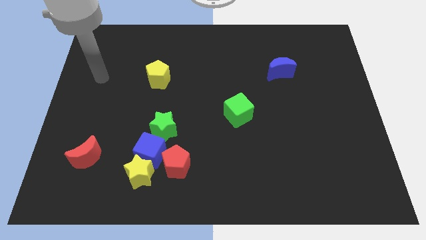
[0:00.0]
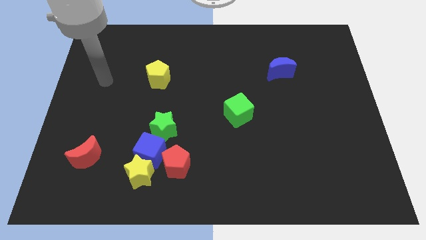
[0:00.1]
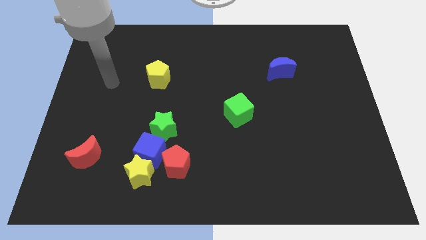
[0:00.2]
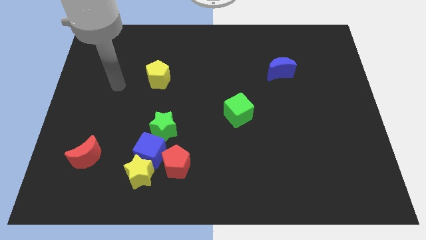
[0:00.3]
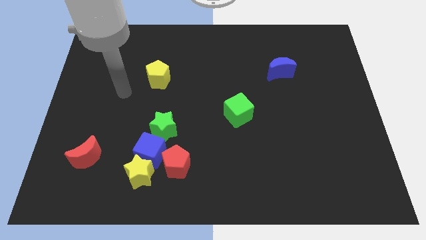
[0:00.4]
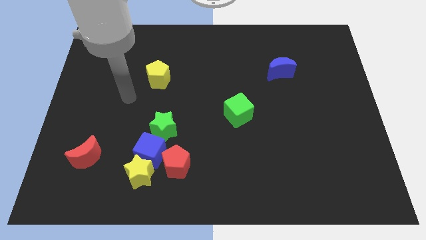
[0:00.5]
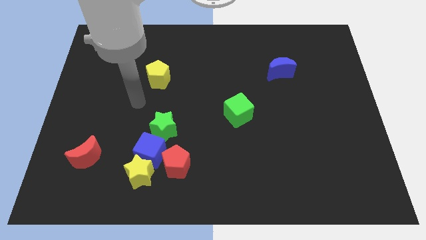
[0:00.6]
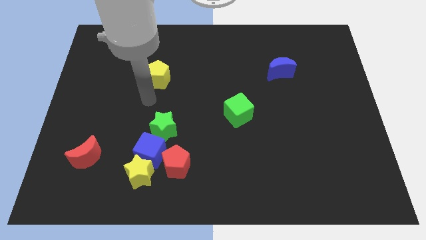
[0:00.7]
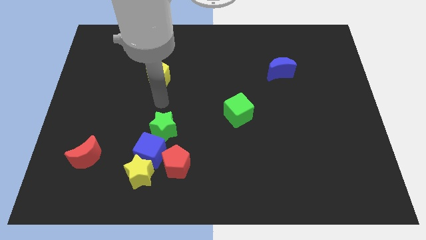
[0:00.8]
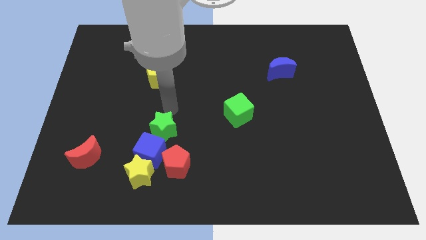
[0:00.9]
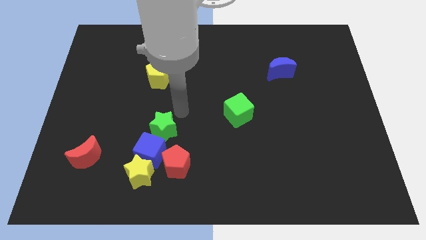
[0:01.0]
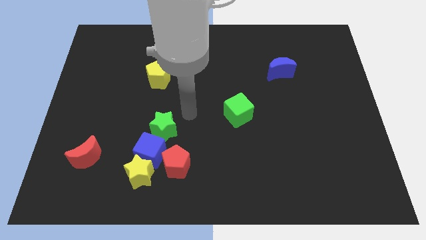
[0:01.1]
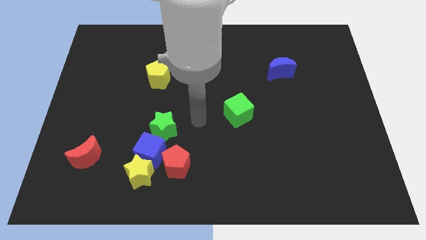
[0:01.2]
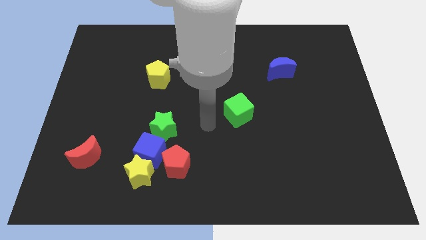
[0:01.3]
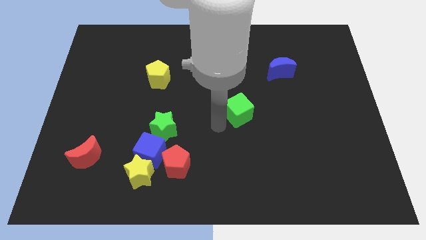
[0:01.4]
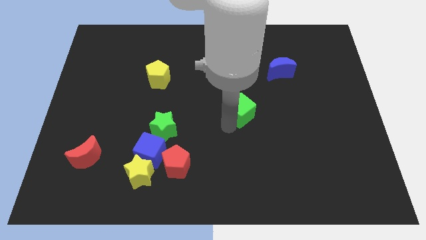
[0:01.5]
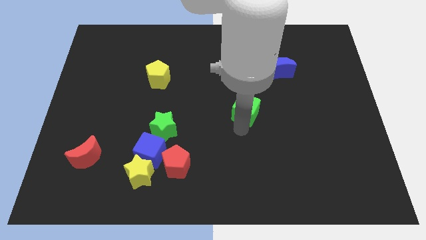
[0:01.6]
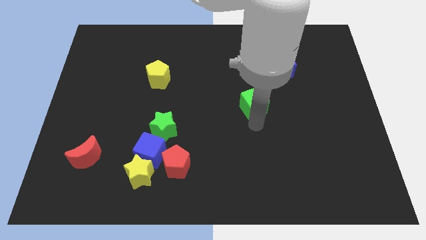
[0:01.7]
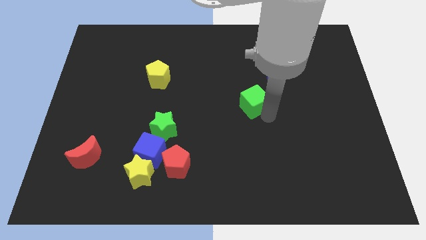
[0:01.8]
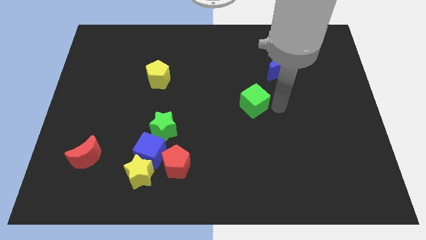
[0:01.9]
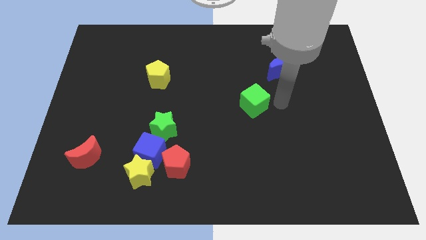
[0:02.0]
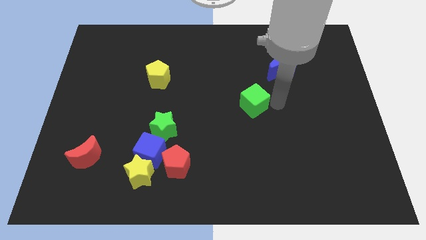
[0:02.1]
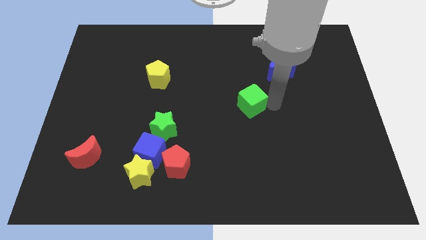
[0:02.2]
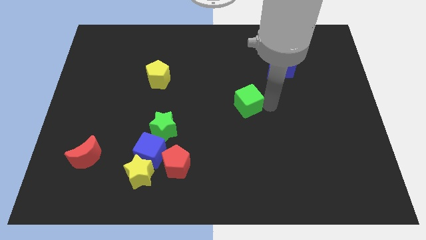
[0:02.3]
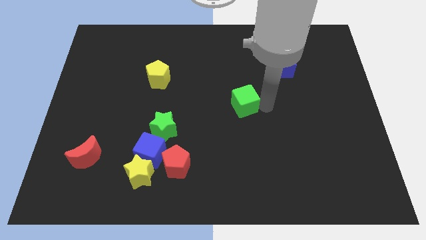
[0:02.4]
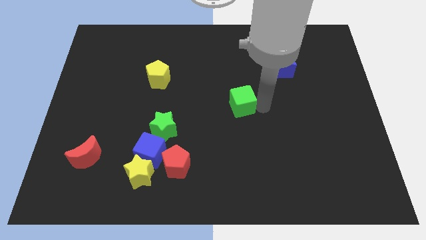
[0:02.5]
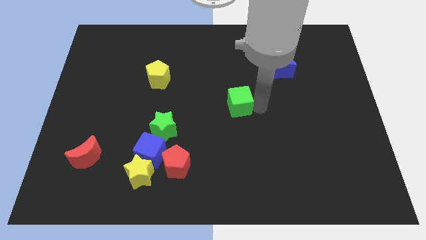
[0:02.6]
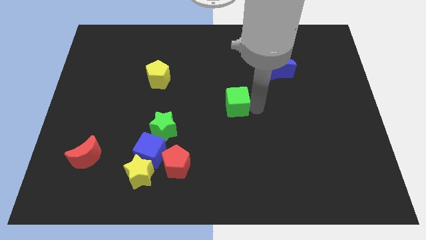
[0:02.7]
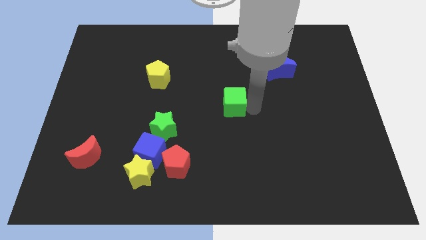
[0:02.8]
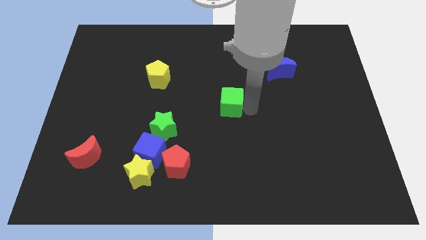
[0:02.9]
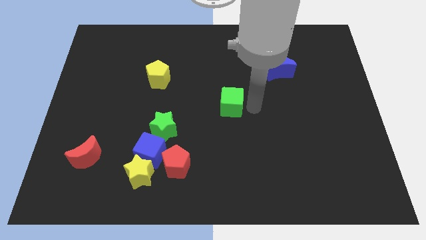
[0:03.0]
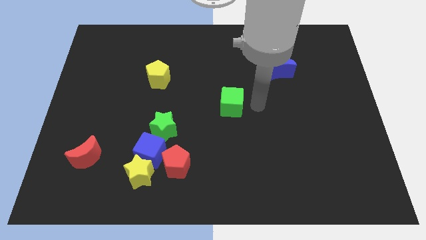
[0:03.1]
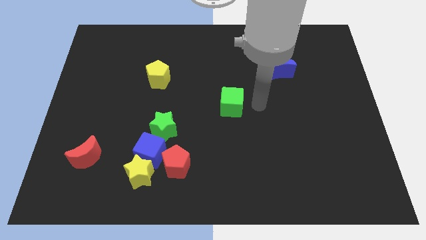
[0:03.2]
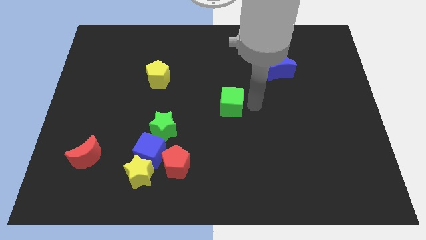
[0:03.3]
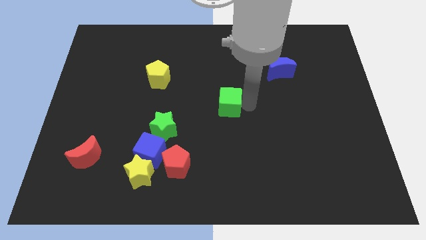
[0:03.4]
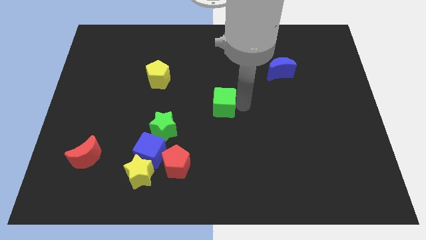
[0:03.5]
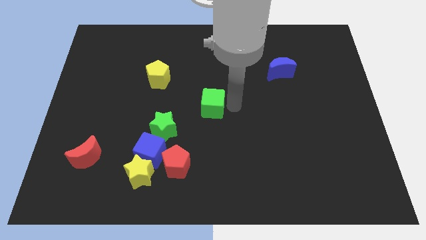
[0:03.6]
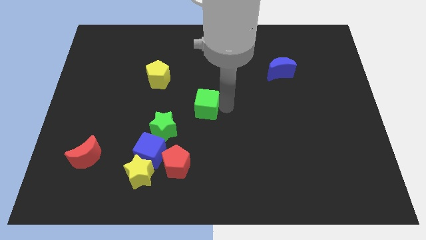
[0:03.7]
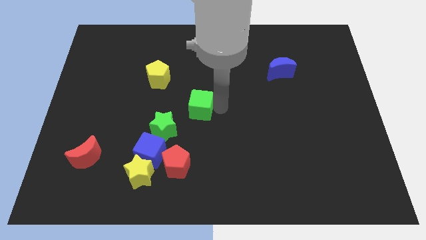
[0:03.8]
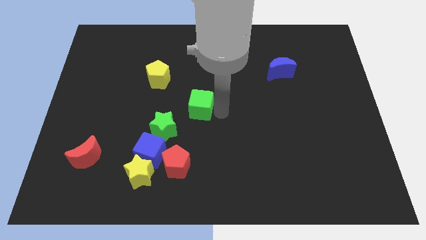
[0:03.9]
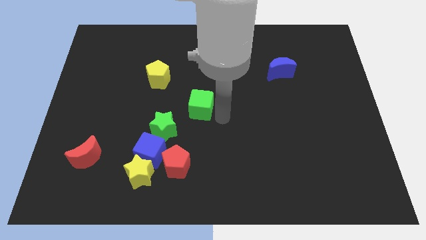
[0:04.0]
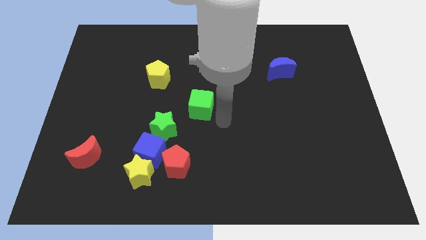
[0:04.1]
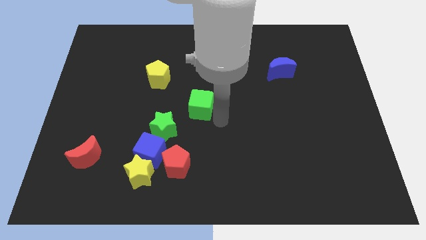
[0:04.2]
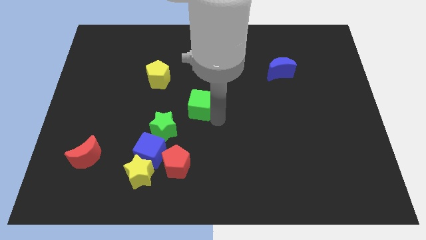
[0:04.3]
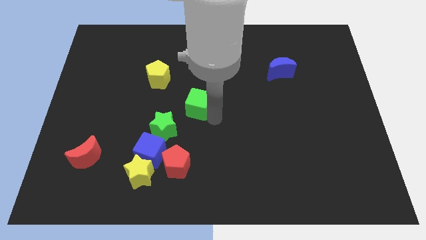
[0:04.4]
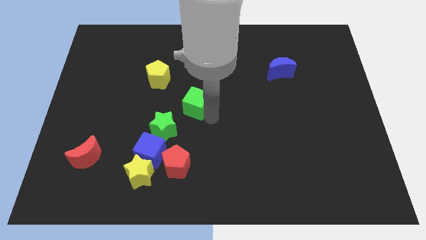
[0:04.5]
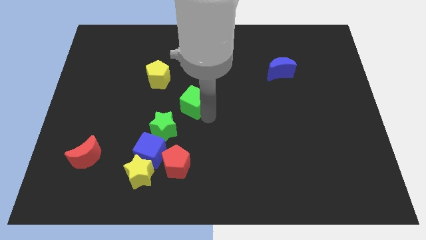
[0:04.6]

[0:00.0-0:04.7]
slide the green cube to the bottom right of the yellow pentagon

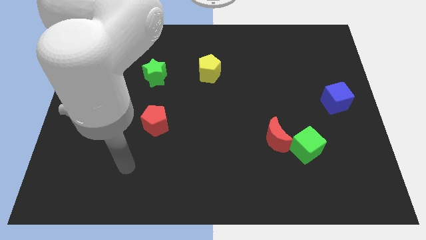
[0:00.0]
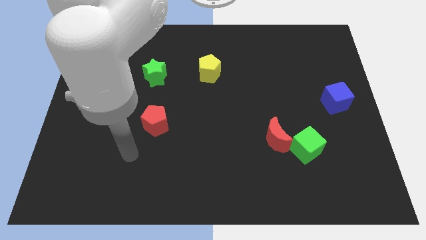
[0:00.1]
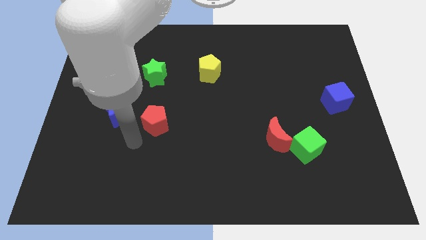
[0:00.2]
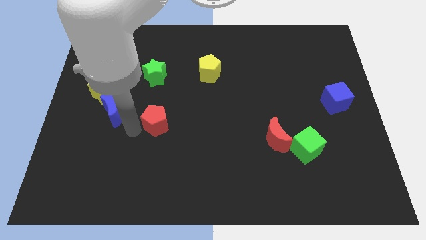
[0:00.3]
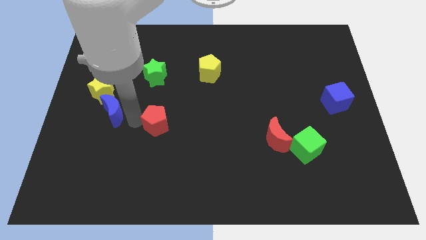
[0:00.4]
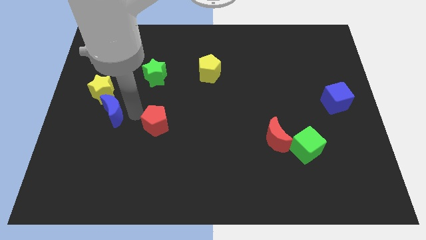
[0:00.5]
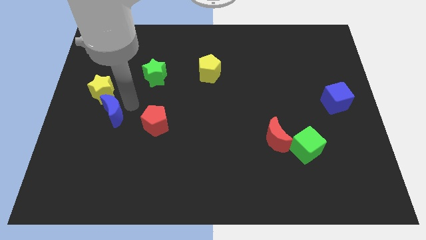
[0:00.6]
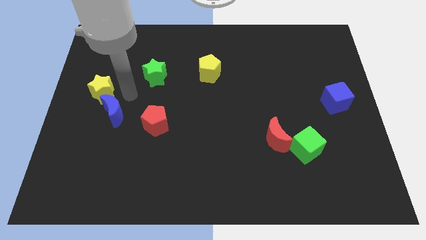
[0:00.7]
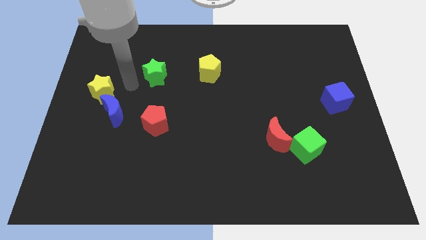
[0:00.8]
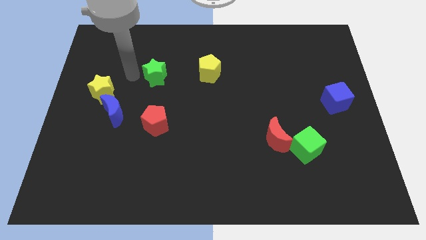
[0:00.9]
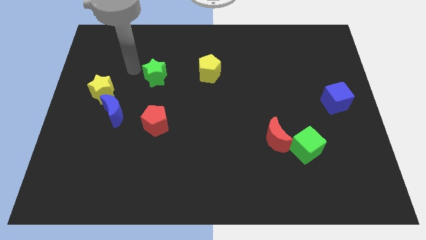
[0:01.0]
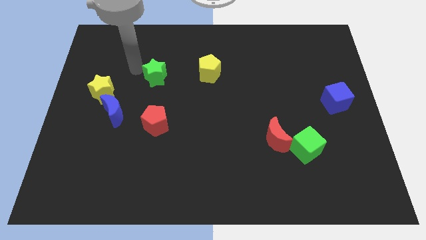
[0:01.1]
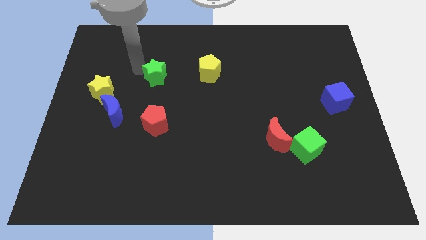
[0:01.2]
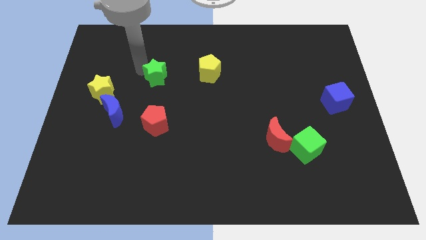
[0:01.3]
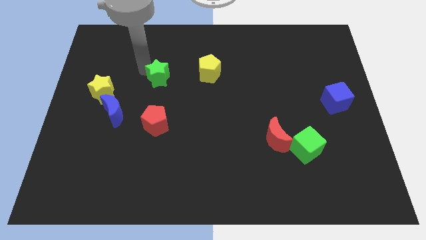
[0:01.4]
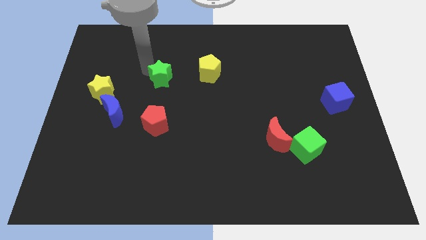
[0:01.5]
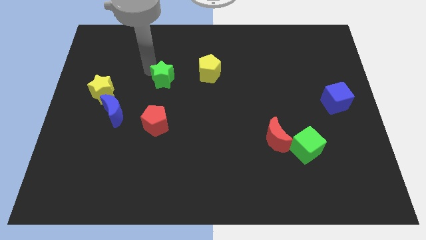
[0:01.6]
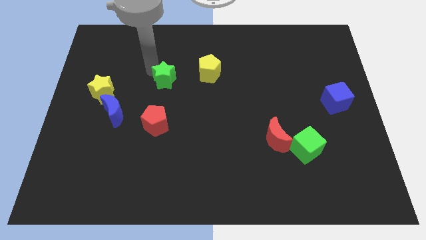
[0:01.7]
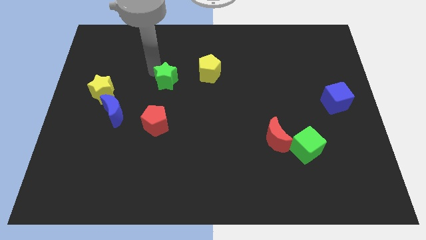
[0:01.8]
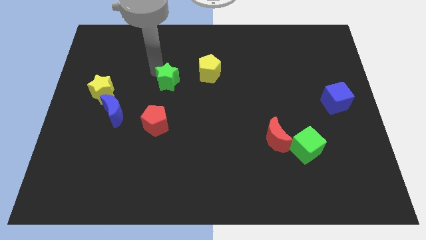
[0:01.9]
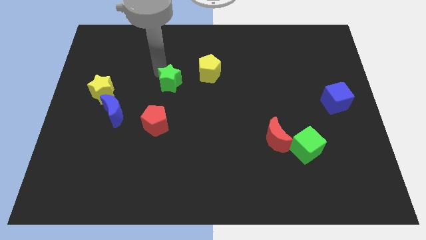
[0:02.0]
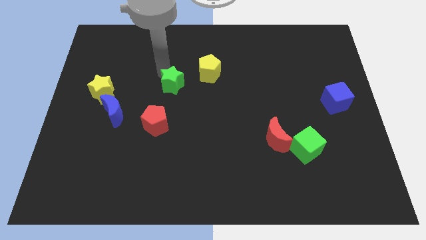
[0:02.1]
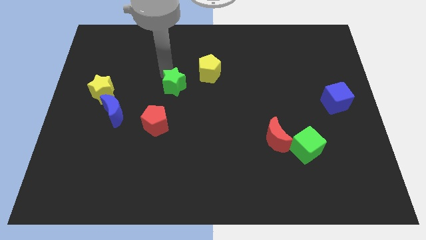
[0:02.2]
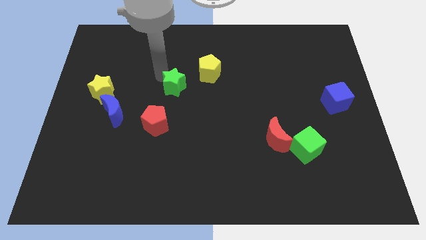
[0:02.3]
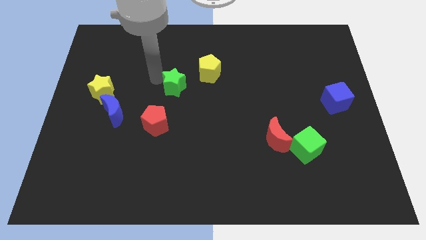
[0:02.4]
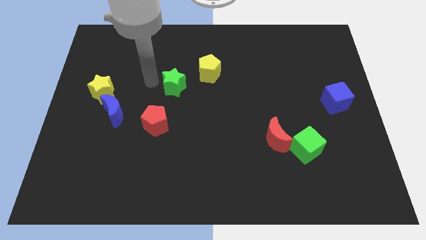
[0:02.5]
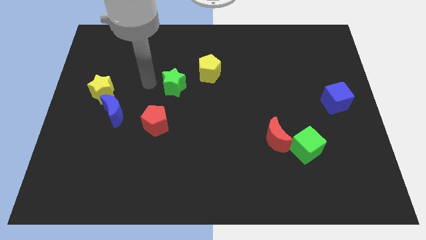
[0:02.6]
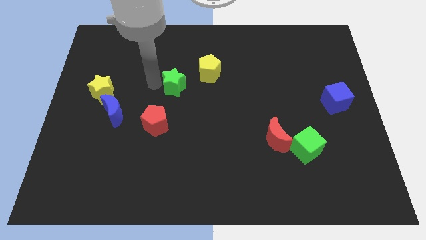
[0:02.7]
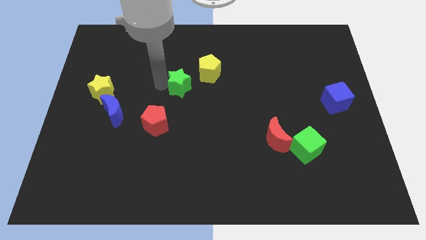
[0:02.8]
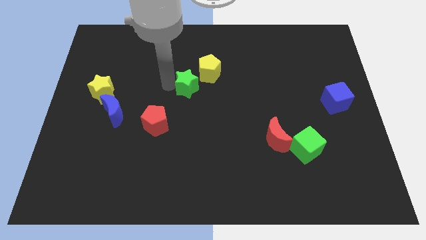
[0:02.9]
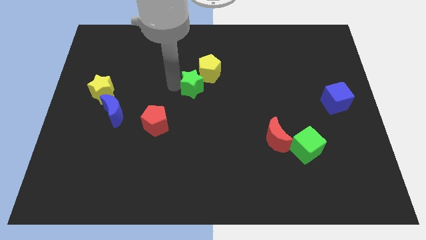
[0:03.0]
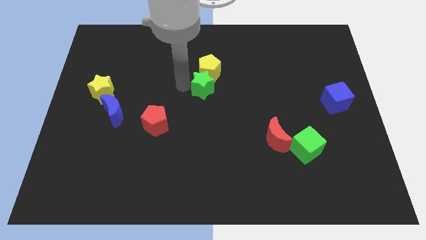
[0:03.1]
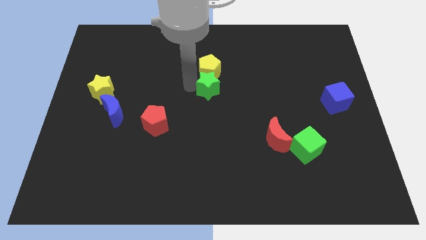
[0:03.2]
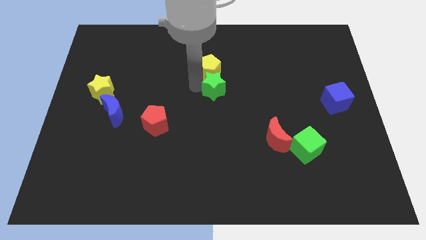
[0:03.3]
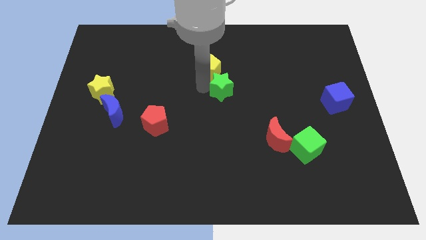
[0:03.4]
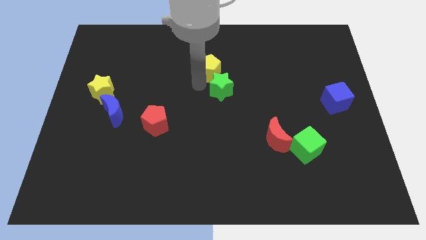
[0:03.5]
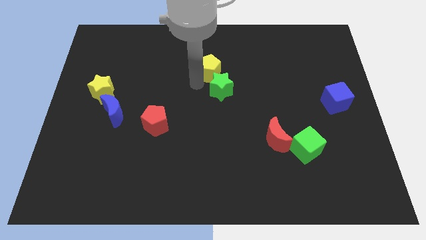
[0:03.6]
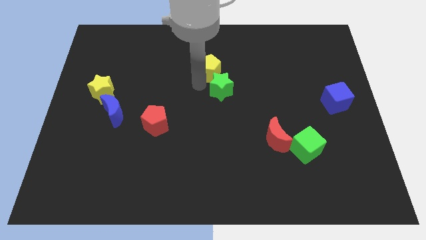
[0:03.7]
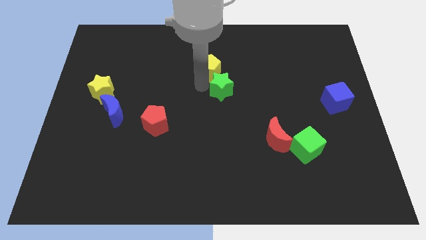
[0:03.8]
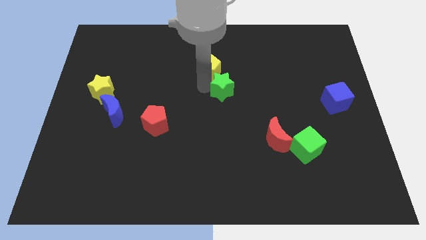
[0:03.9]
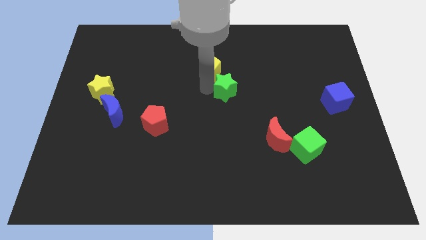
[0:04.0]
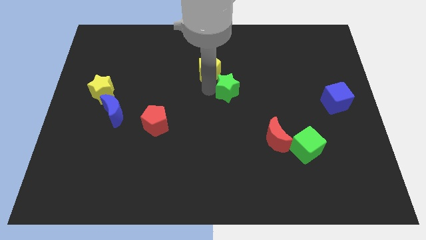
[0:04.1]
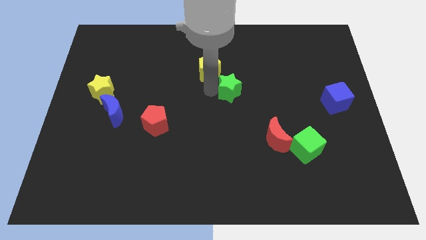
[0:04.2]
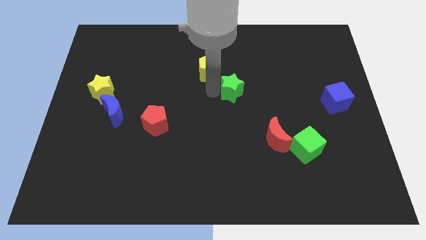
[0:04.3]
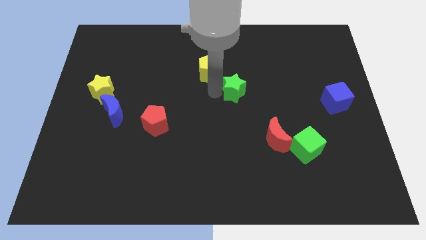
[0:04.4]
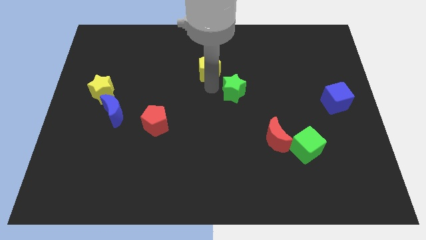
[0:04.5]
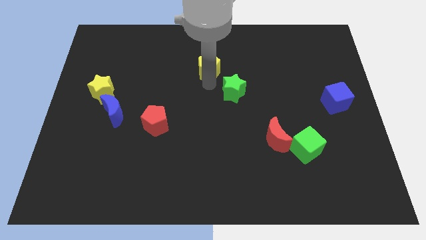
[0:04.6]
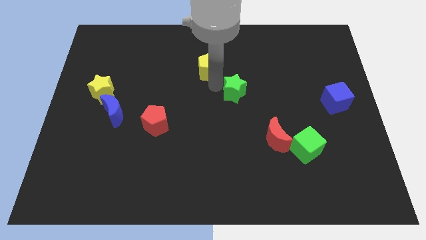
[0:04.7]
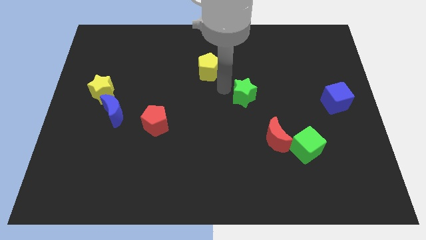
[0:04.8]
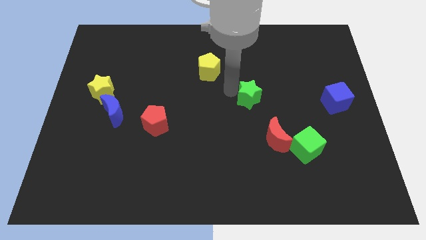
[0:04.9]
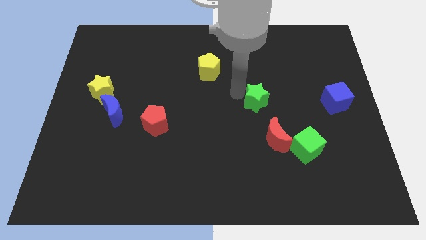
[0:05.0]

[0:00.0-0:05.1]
put the green star to the top of the red moon
